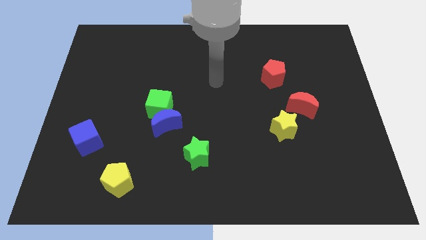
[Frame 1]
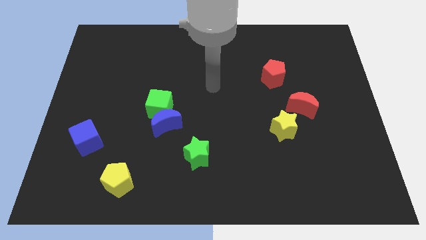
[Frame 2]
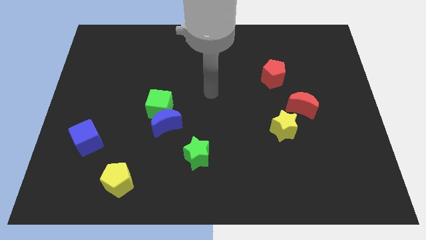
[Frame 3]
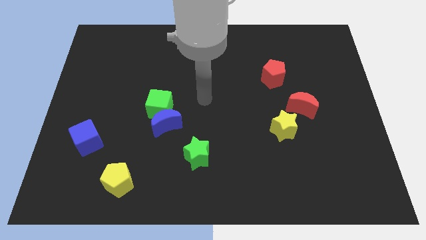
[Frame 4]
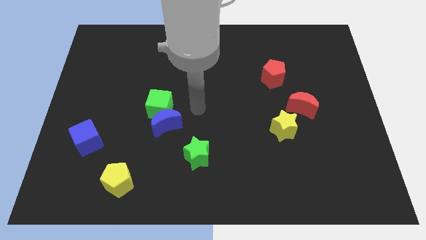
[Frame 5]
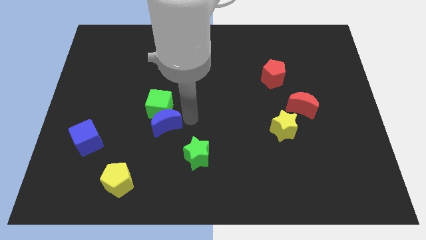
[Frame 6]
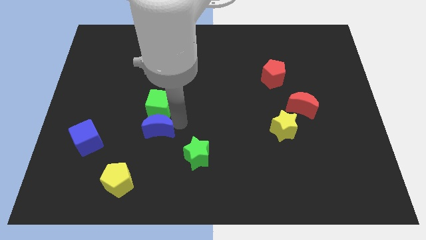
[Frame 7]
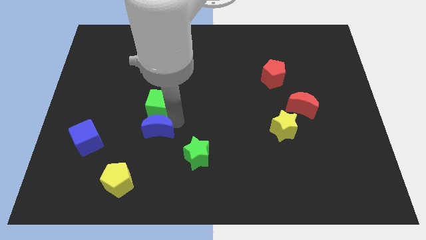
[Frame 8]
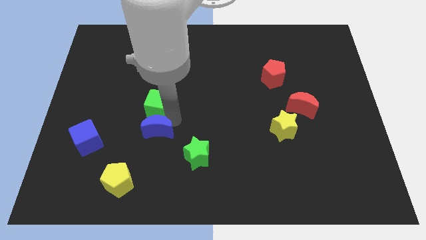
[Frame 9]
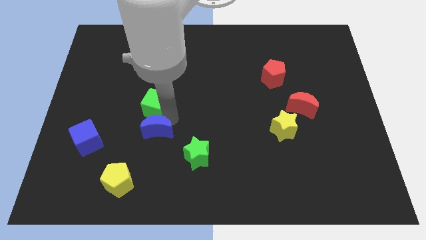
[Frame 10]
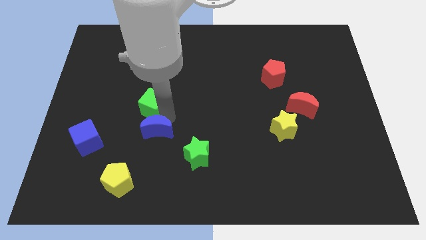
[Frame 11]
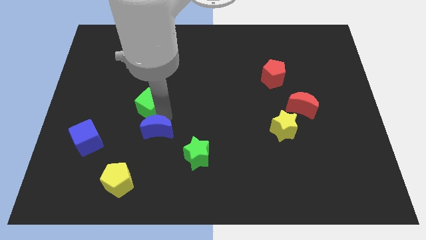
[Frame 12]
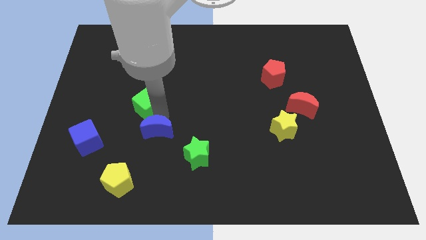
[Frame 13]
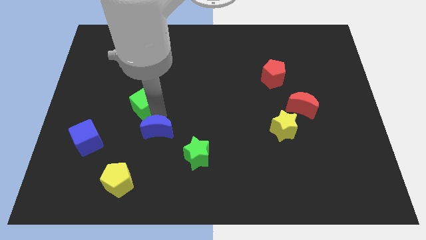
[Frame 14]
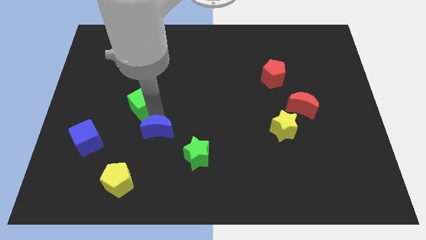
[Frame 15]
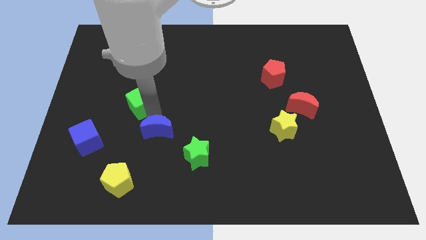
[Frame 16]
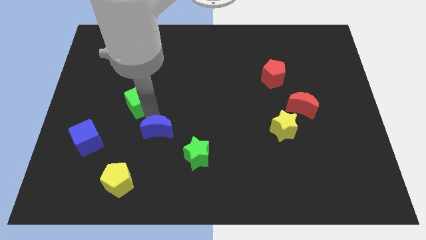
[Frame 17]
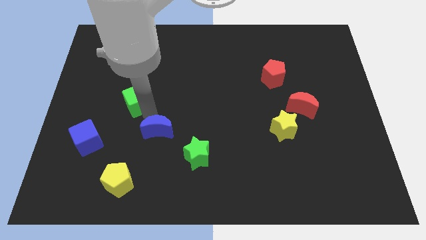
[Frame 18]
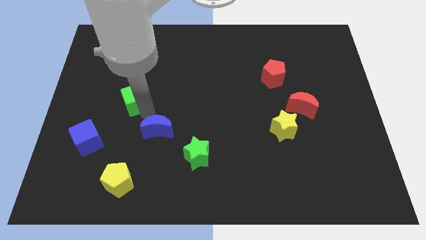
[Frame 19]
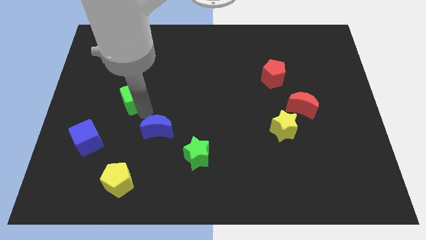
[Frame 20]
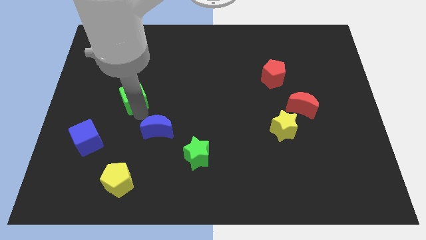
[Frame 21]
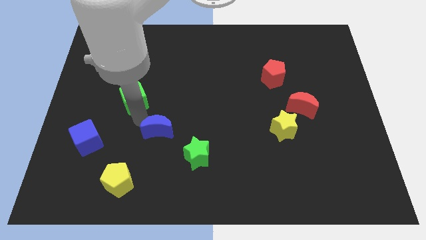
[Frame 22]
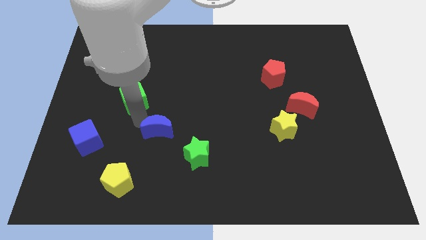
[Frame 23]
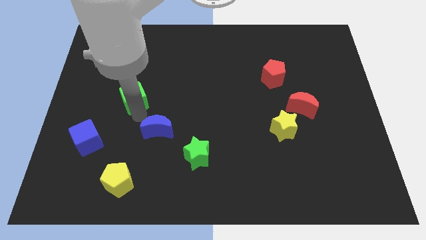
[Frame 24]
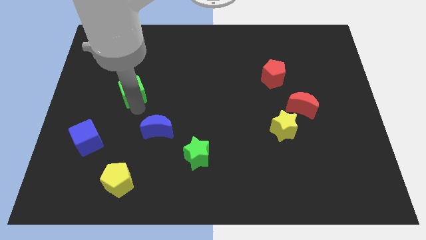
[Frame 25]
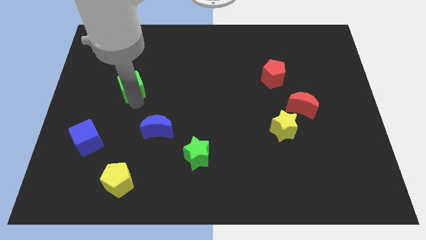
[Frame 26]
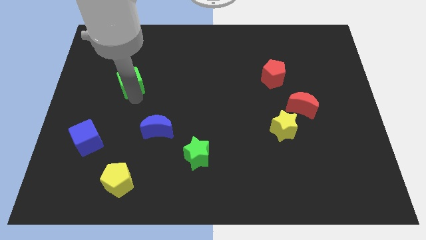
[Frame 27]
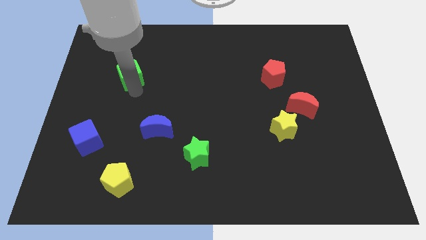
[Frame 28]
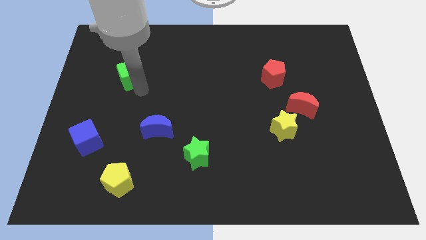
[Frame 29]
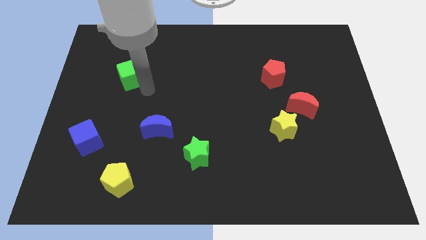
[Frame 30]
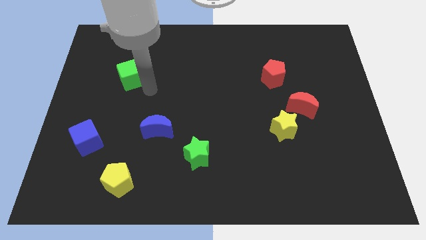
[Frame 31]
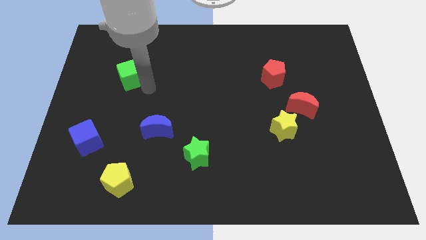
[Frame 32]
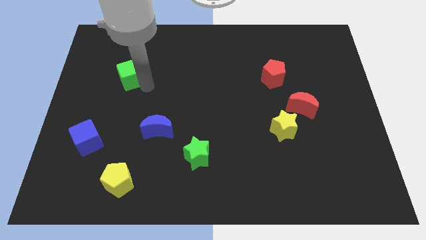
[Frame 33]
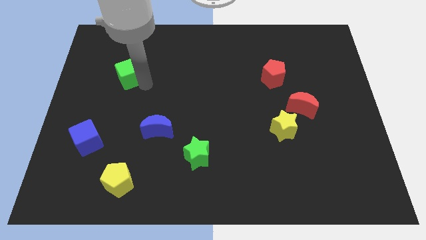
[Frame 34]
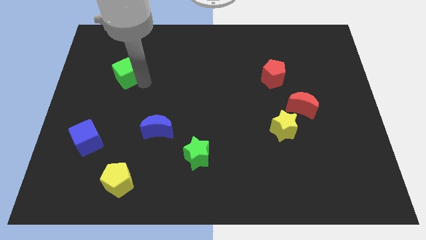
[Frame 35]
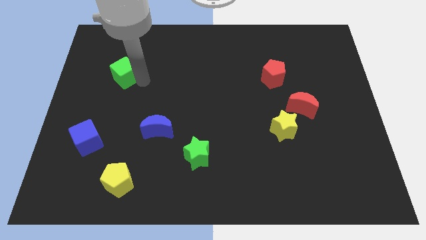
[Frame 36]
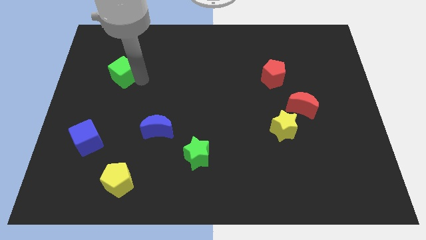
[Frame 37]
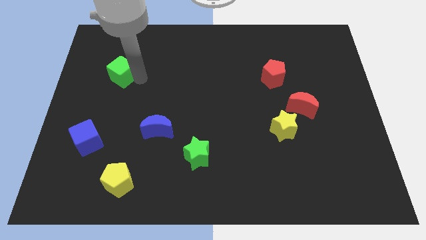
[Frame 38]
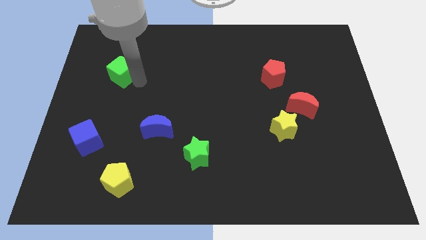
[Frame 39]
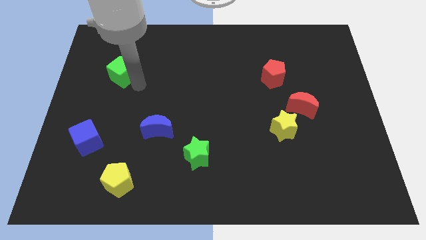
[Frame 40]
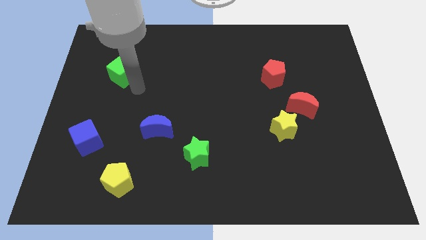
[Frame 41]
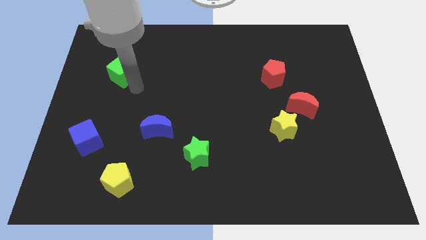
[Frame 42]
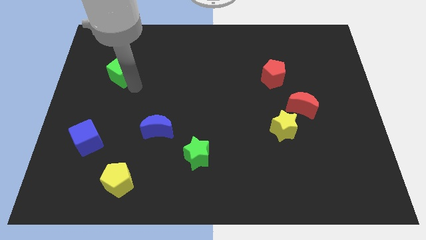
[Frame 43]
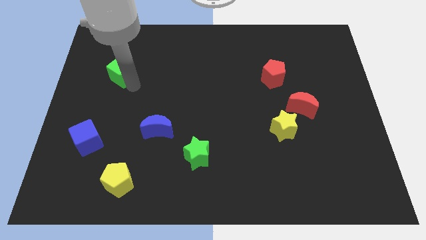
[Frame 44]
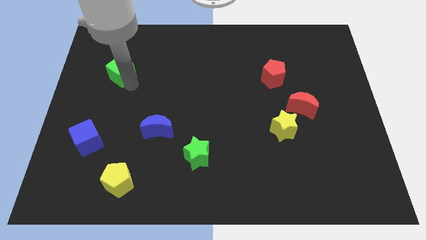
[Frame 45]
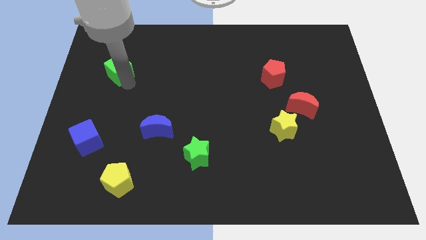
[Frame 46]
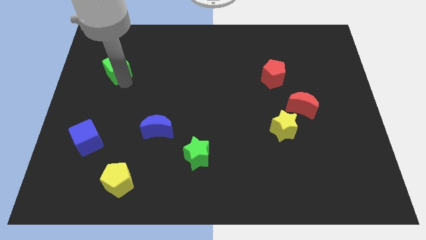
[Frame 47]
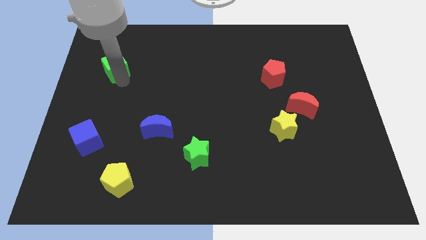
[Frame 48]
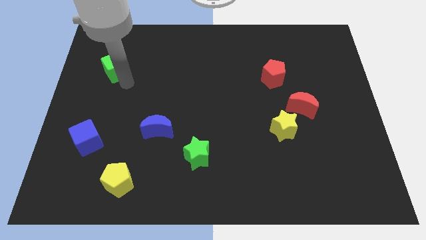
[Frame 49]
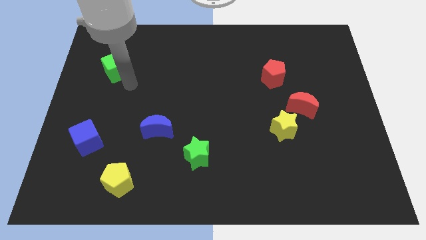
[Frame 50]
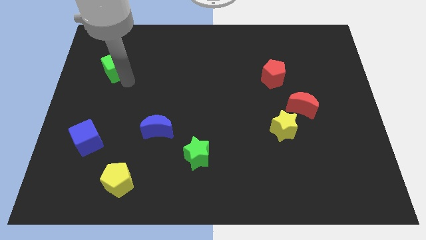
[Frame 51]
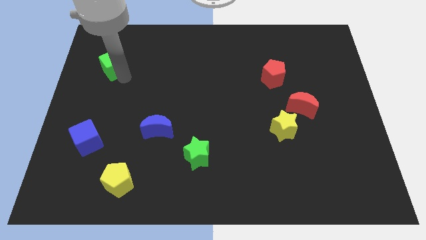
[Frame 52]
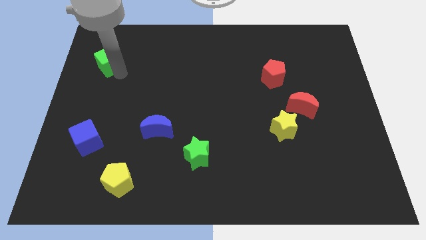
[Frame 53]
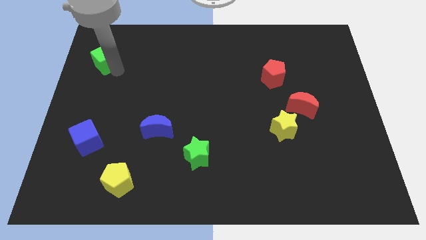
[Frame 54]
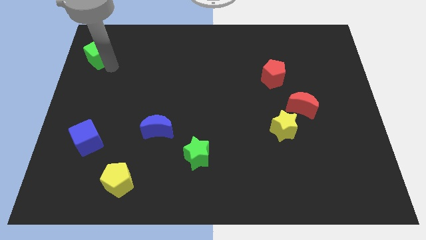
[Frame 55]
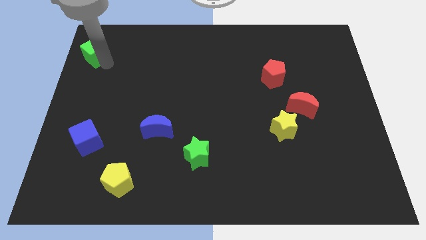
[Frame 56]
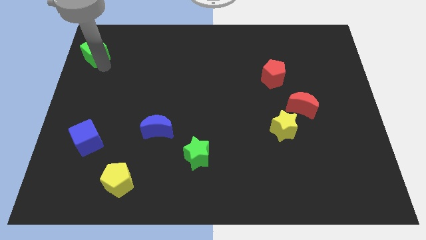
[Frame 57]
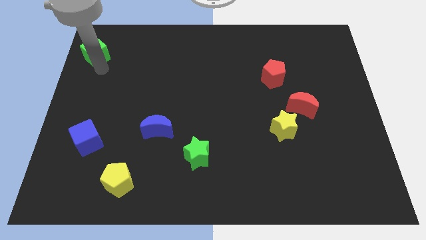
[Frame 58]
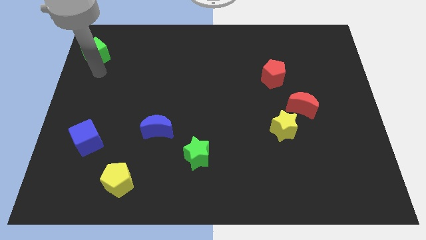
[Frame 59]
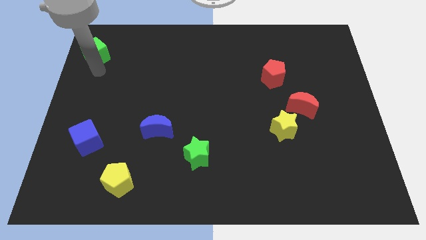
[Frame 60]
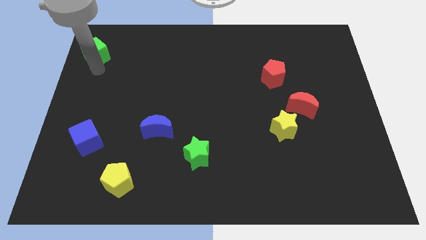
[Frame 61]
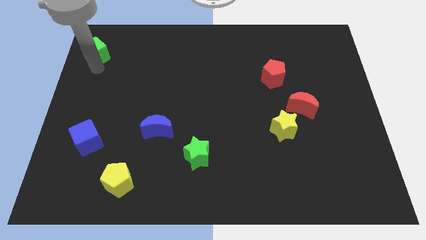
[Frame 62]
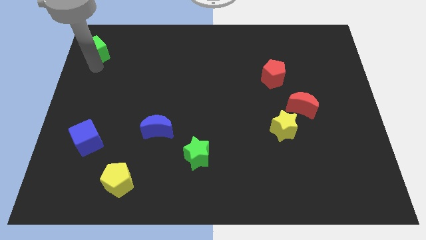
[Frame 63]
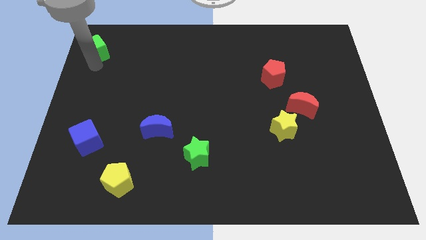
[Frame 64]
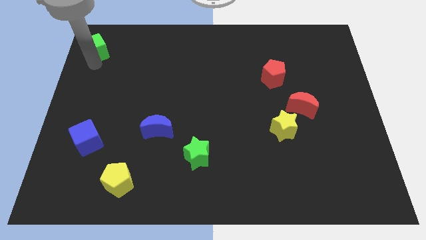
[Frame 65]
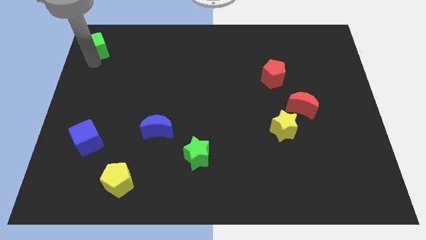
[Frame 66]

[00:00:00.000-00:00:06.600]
slide the green cube to the top left
